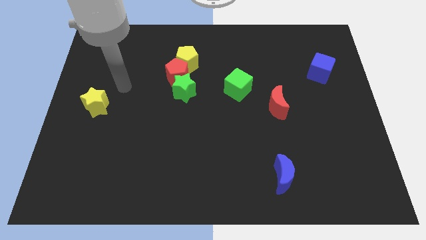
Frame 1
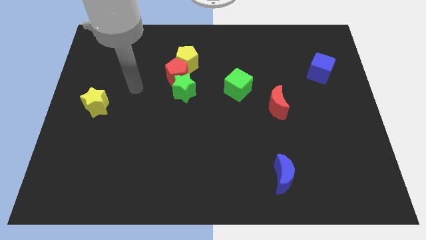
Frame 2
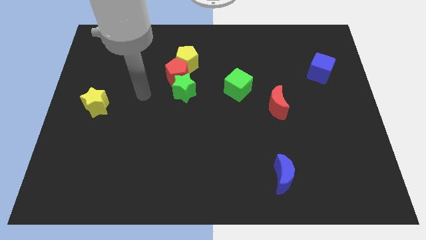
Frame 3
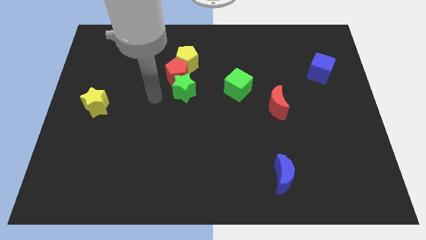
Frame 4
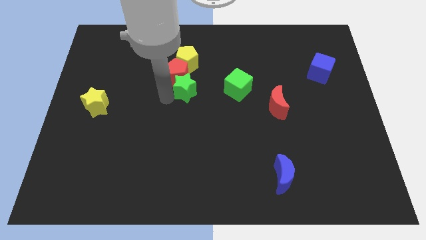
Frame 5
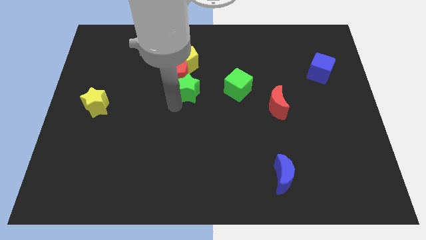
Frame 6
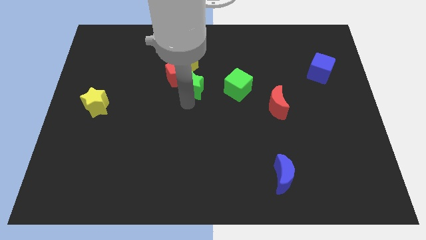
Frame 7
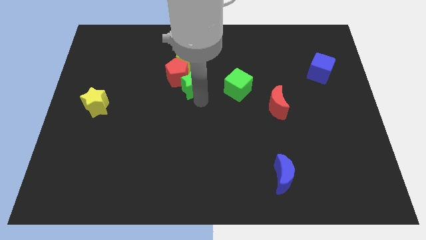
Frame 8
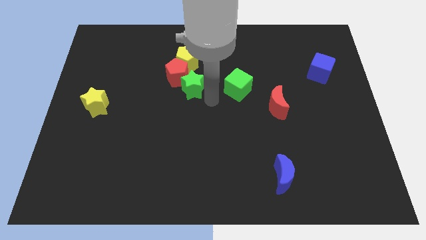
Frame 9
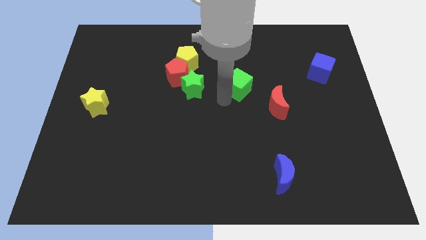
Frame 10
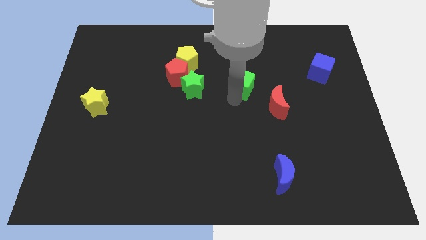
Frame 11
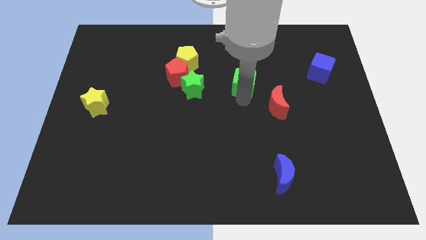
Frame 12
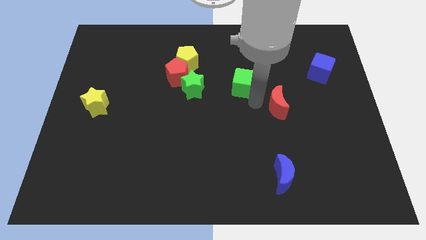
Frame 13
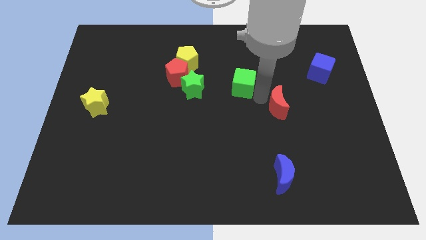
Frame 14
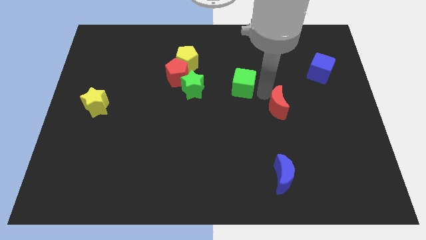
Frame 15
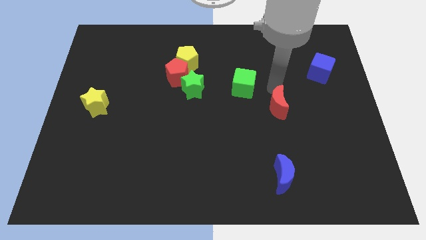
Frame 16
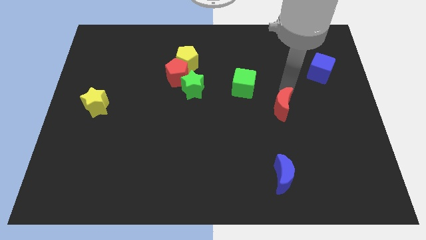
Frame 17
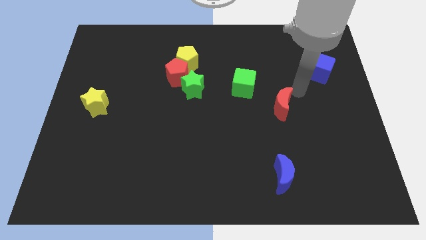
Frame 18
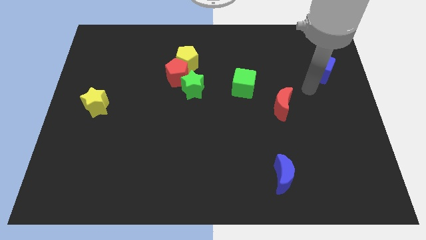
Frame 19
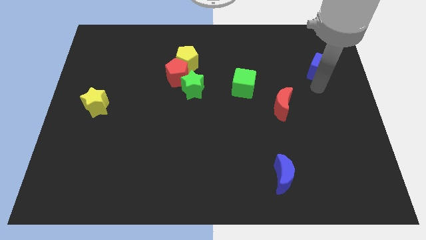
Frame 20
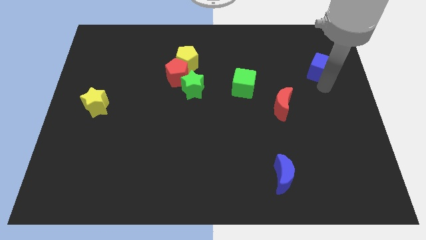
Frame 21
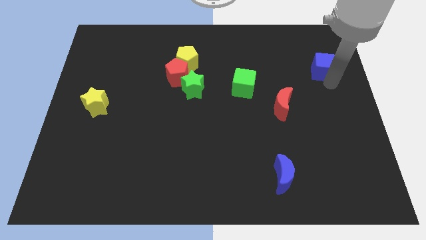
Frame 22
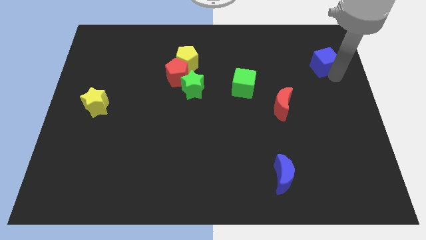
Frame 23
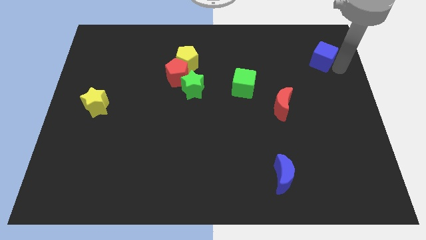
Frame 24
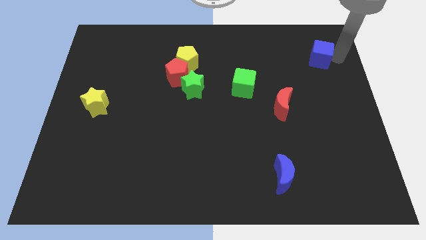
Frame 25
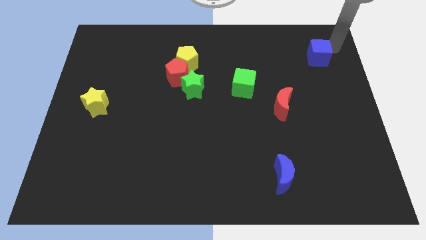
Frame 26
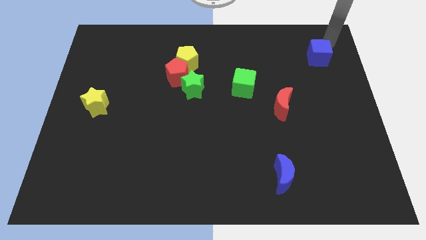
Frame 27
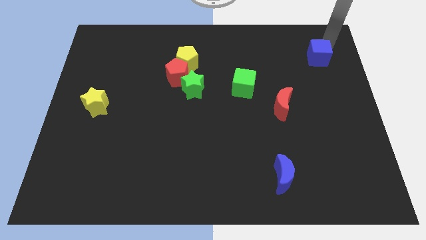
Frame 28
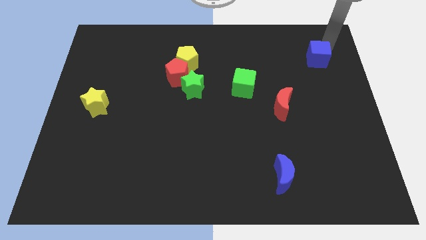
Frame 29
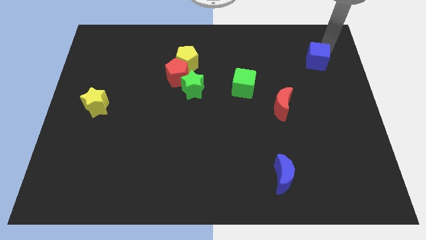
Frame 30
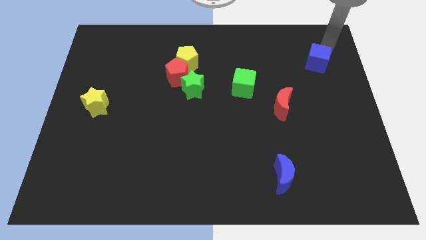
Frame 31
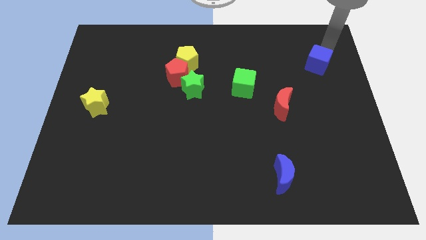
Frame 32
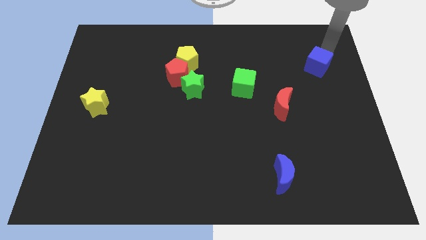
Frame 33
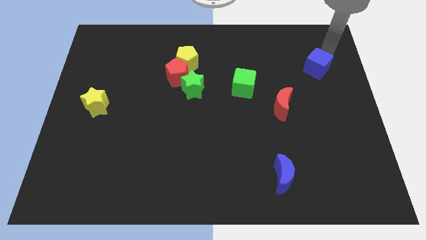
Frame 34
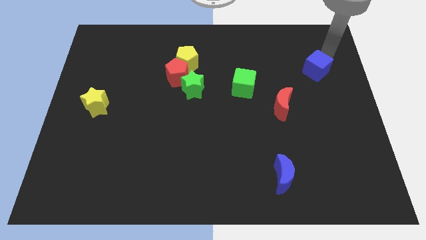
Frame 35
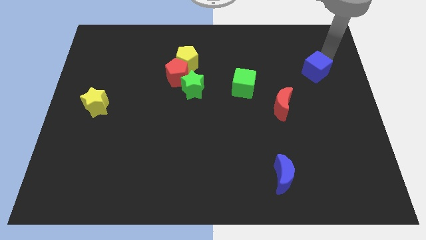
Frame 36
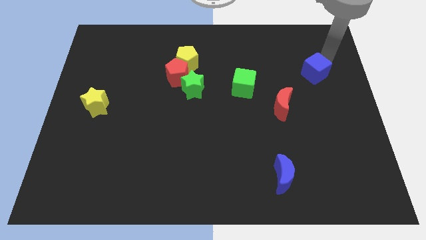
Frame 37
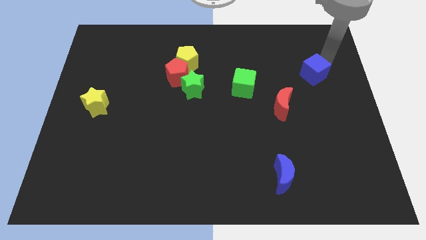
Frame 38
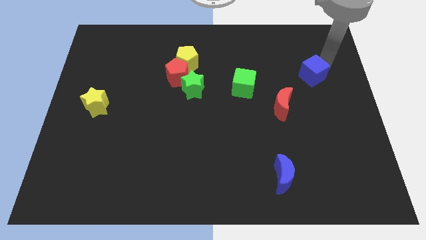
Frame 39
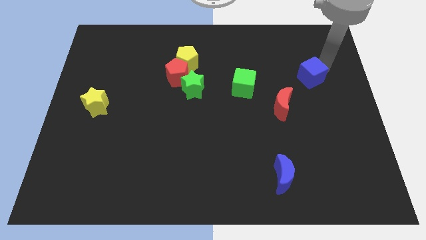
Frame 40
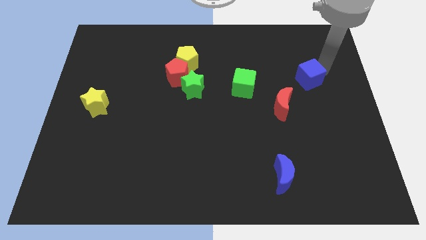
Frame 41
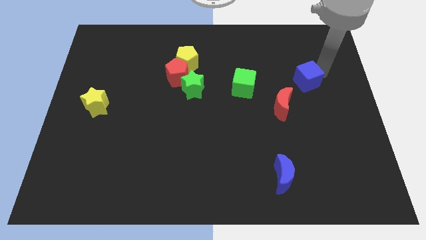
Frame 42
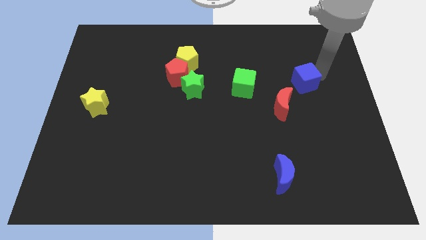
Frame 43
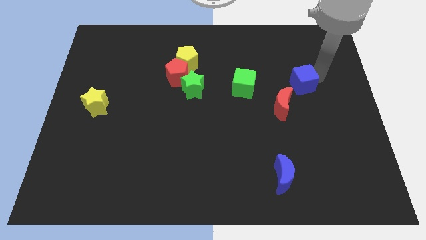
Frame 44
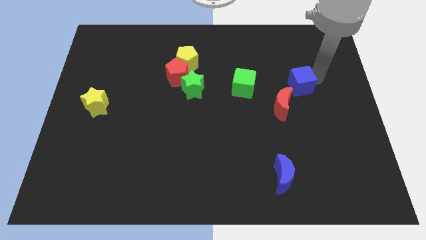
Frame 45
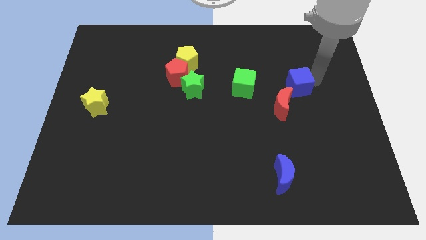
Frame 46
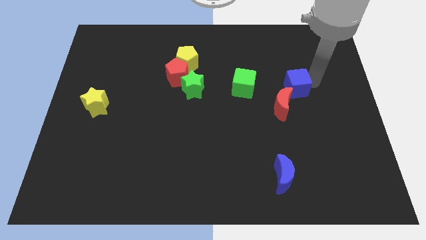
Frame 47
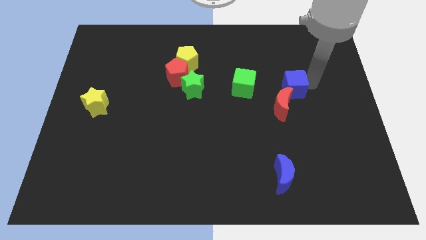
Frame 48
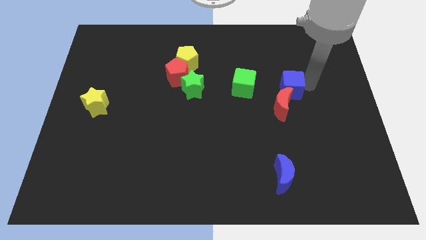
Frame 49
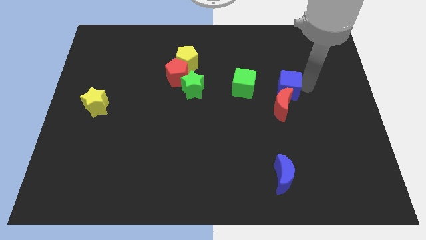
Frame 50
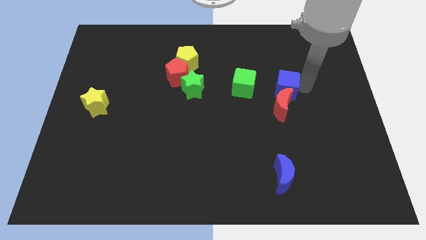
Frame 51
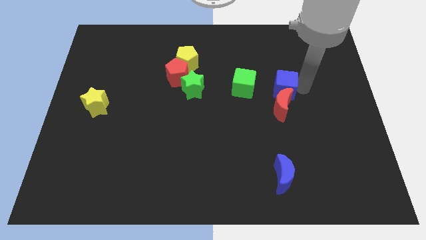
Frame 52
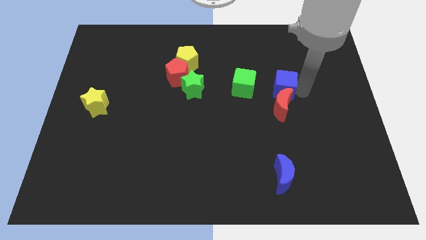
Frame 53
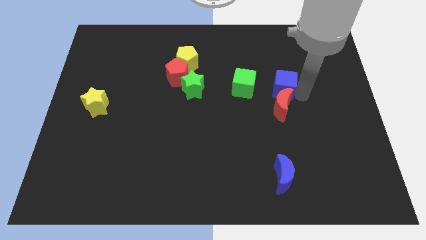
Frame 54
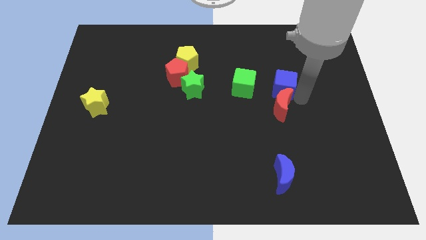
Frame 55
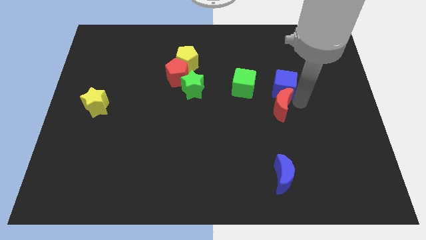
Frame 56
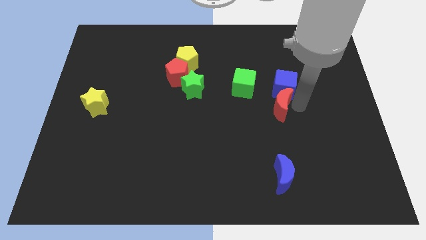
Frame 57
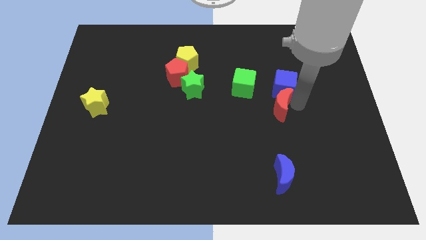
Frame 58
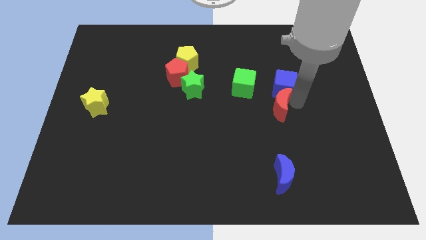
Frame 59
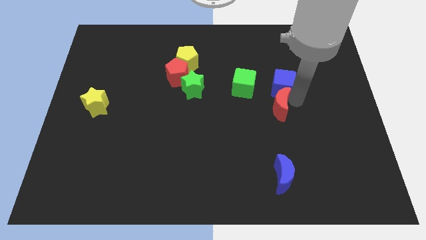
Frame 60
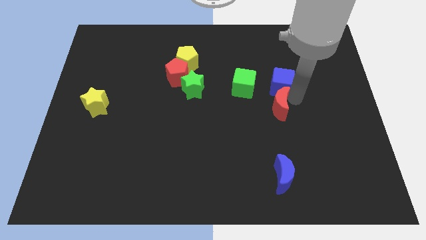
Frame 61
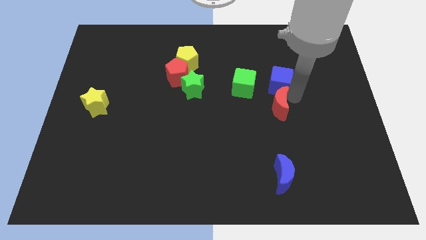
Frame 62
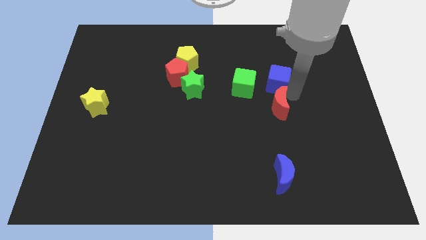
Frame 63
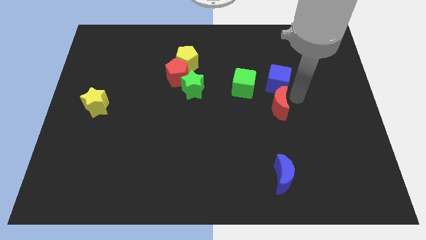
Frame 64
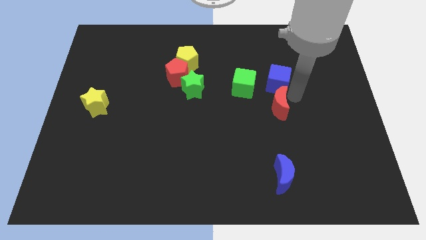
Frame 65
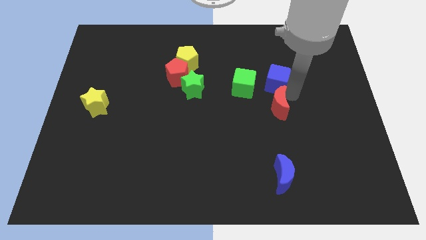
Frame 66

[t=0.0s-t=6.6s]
slide the blue cube to the top right of the green cube

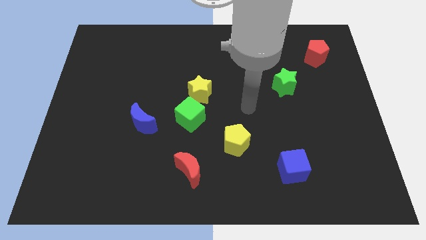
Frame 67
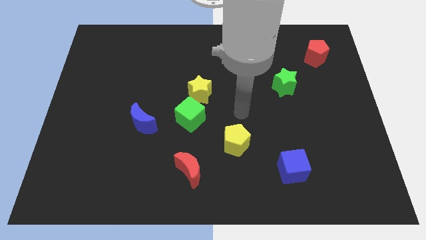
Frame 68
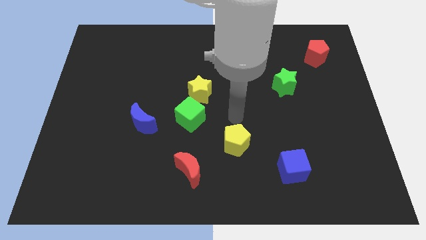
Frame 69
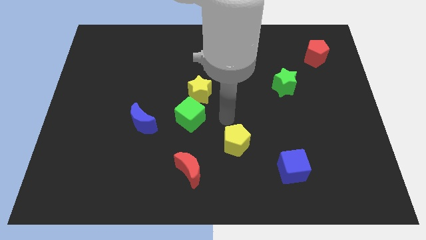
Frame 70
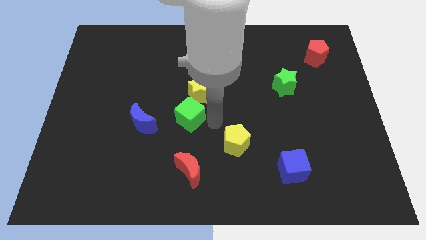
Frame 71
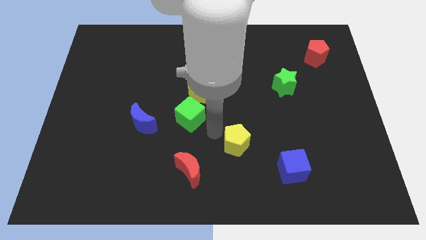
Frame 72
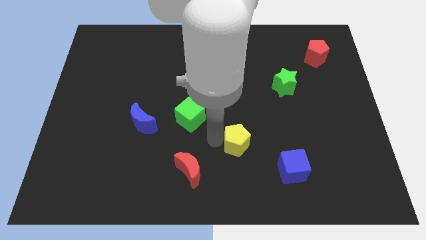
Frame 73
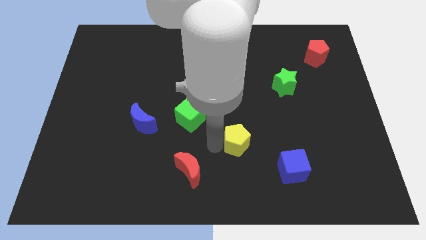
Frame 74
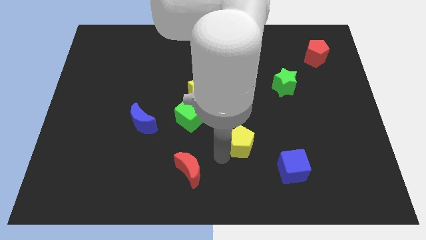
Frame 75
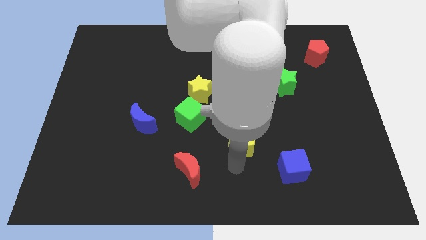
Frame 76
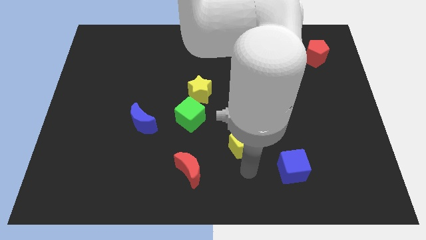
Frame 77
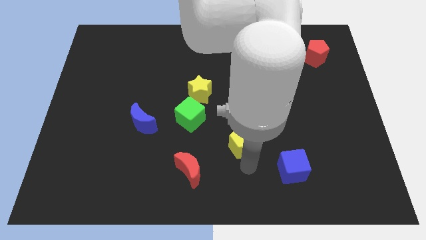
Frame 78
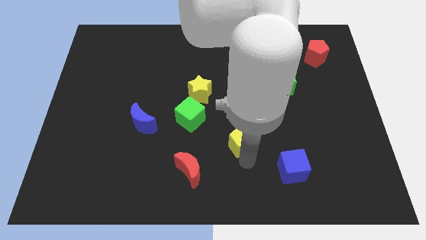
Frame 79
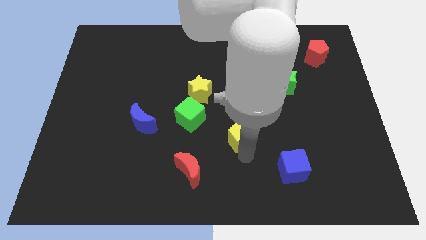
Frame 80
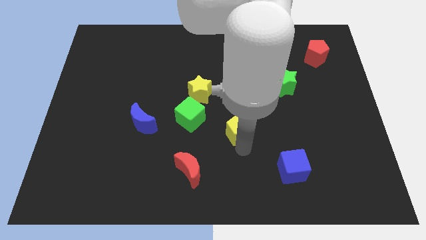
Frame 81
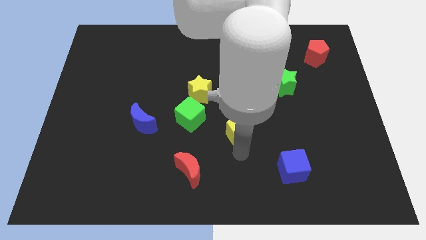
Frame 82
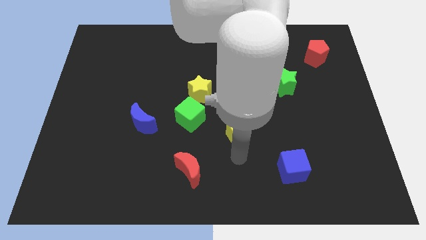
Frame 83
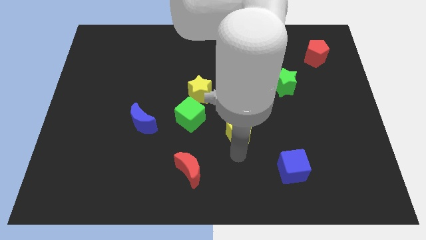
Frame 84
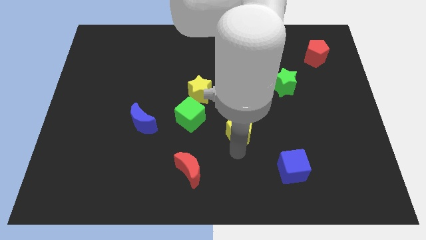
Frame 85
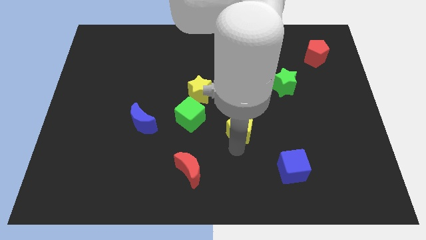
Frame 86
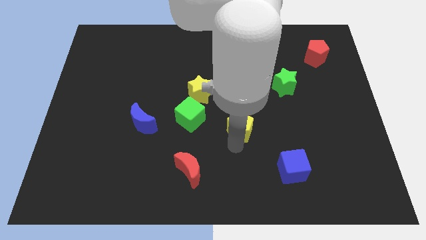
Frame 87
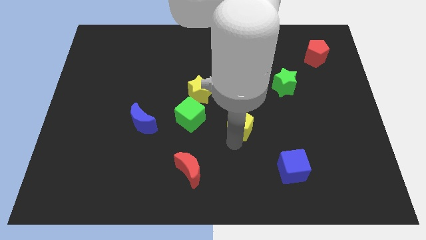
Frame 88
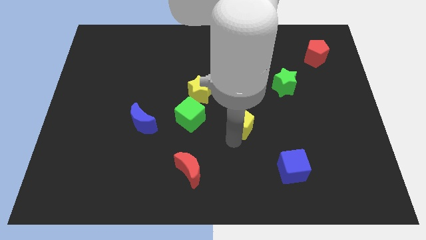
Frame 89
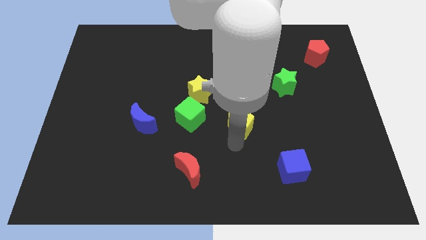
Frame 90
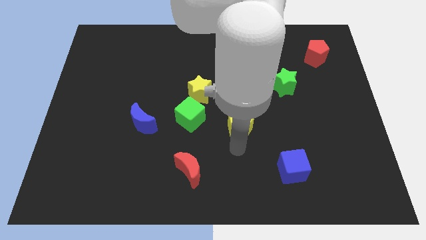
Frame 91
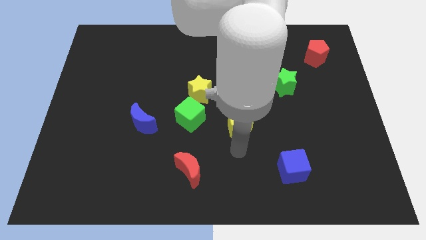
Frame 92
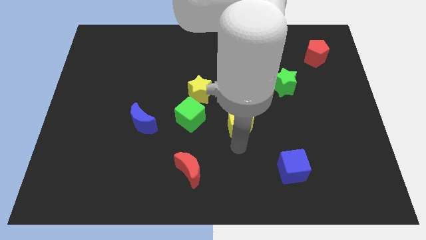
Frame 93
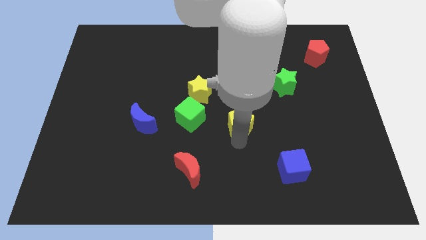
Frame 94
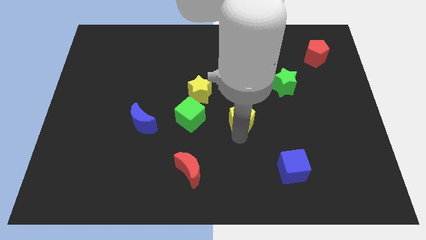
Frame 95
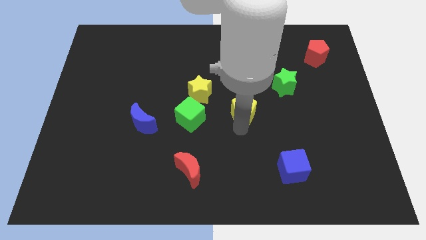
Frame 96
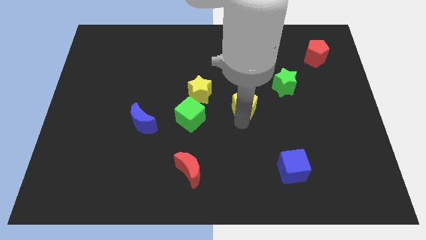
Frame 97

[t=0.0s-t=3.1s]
push the yellow pentagon just right of the yellow star
